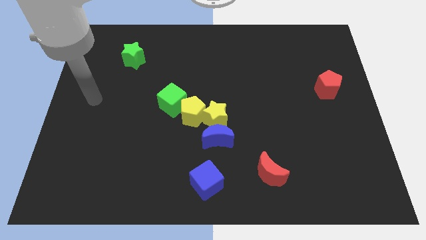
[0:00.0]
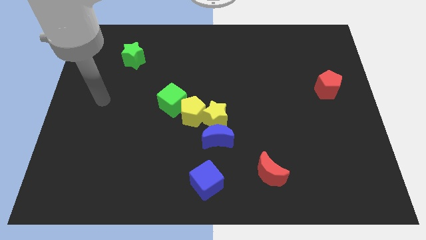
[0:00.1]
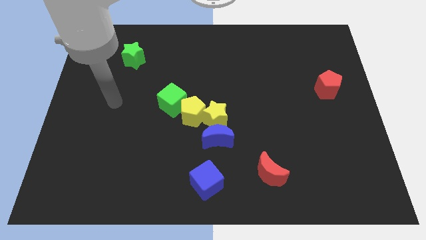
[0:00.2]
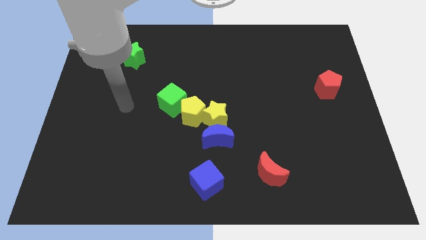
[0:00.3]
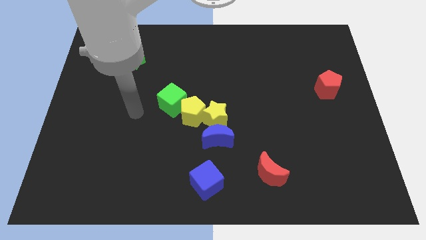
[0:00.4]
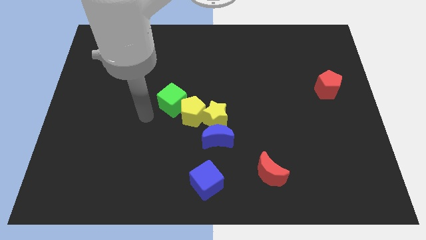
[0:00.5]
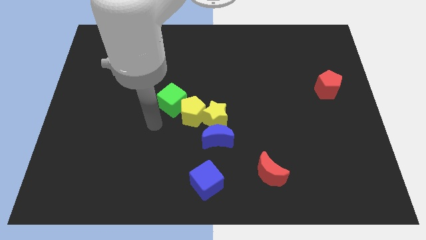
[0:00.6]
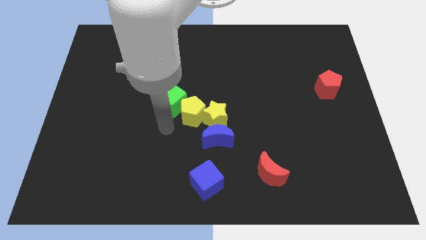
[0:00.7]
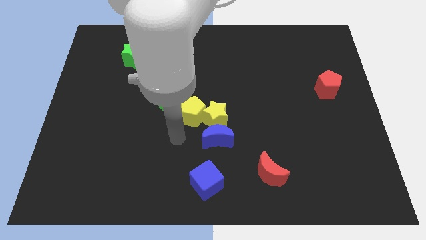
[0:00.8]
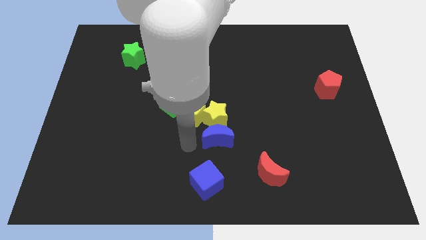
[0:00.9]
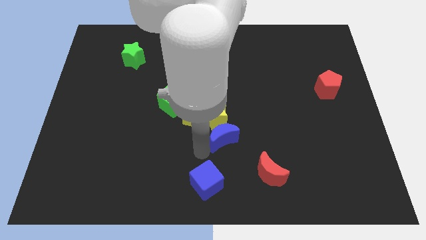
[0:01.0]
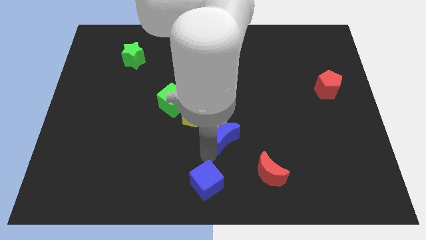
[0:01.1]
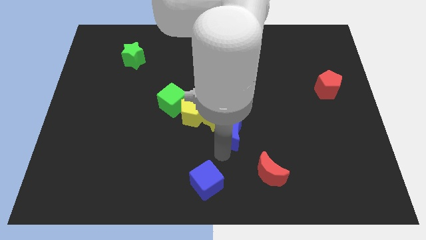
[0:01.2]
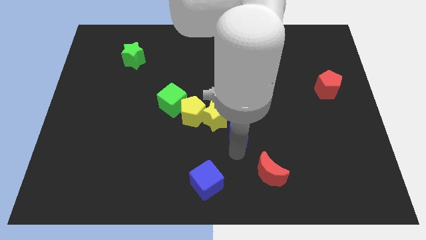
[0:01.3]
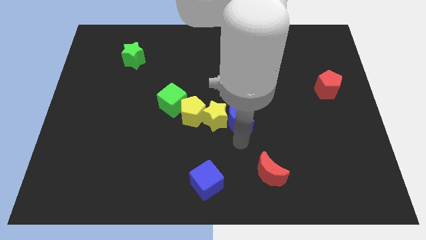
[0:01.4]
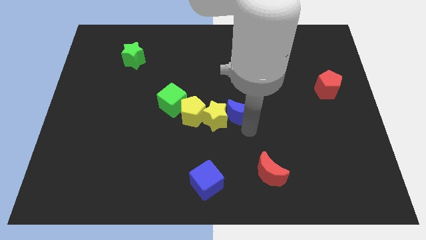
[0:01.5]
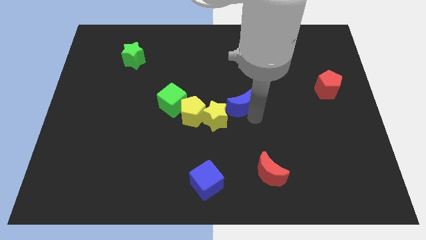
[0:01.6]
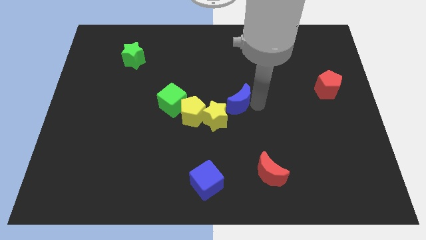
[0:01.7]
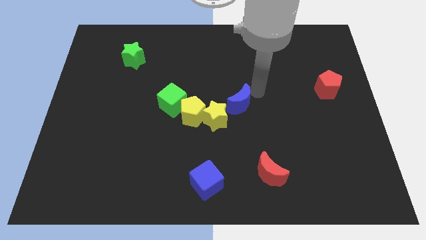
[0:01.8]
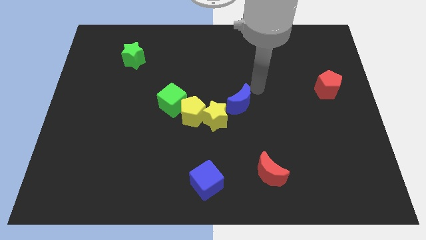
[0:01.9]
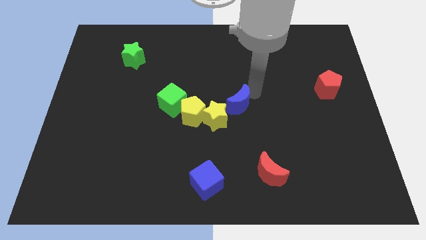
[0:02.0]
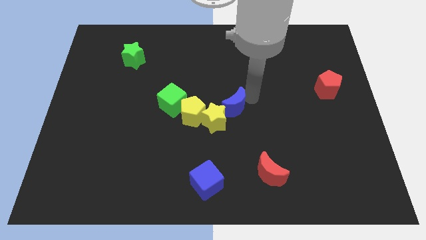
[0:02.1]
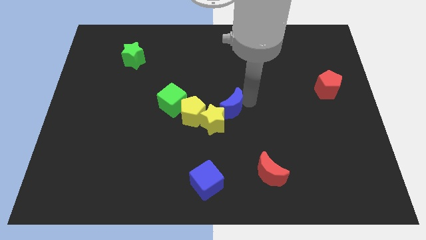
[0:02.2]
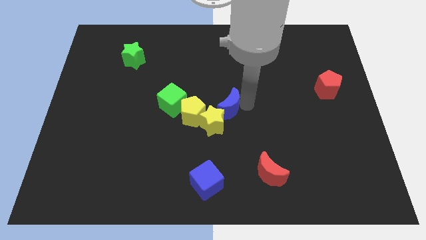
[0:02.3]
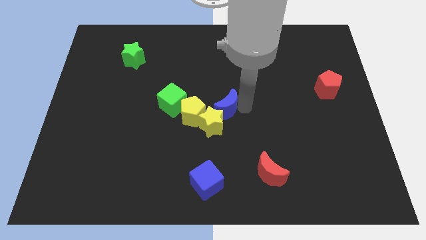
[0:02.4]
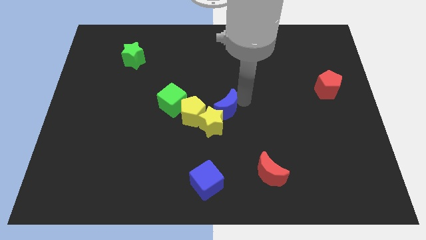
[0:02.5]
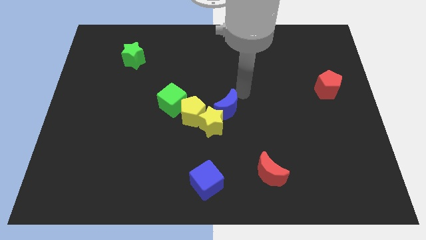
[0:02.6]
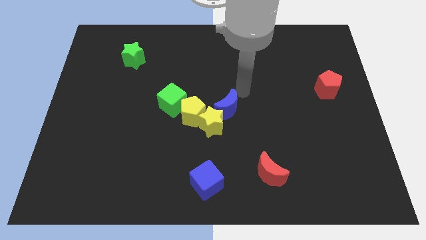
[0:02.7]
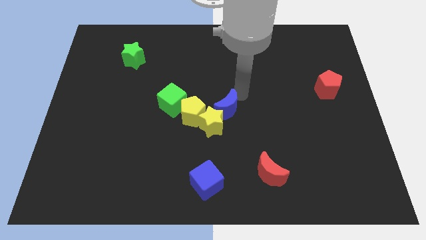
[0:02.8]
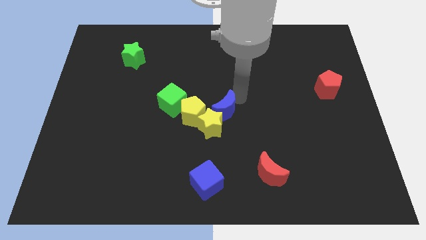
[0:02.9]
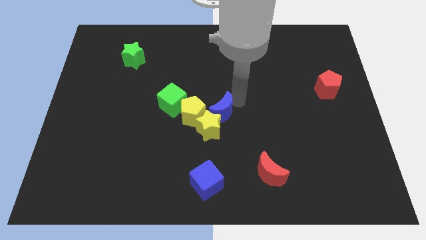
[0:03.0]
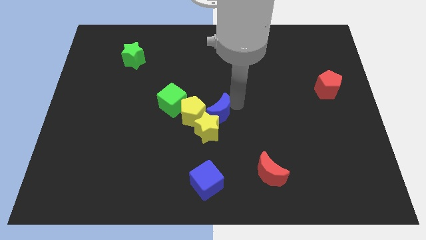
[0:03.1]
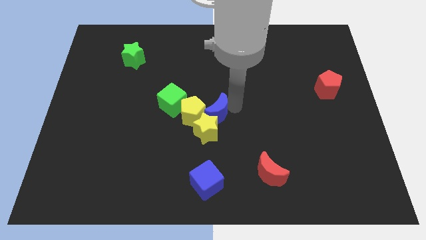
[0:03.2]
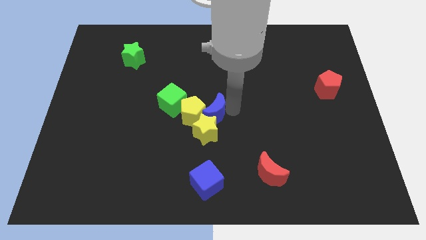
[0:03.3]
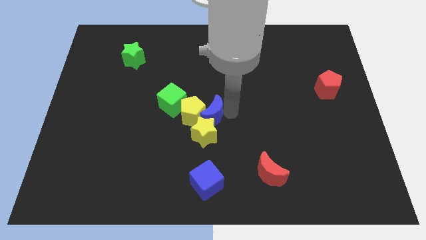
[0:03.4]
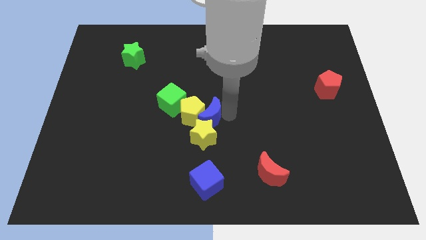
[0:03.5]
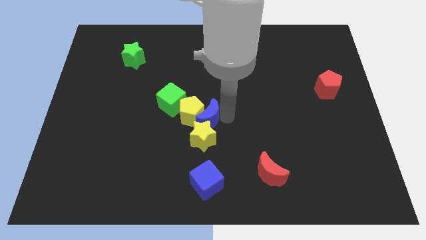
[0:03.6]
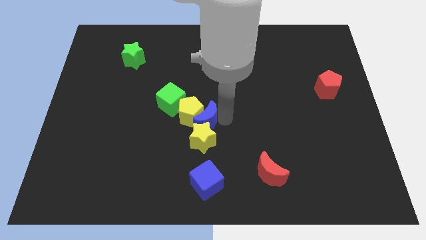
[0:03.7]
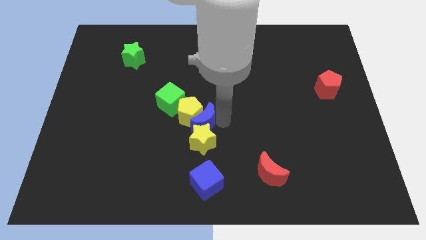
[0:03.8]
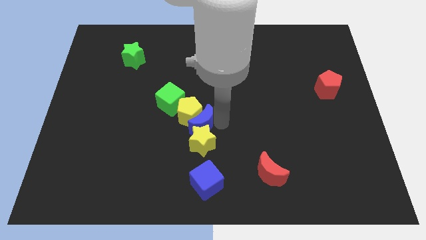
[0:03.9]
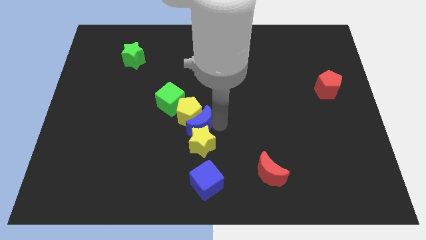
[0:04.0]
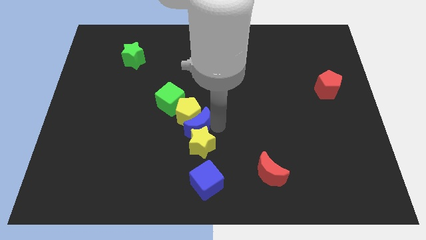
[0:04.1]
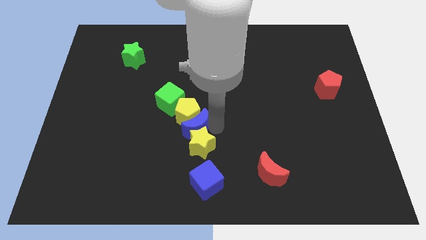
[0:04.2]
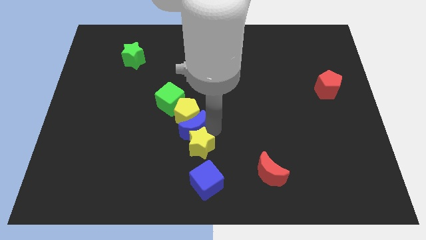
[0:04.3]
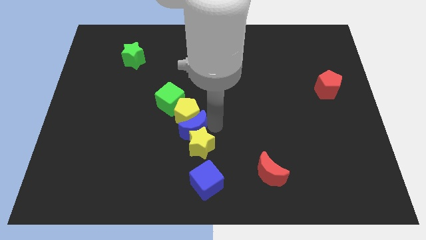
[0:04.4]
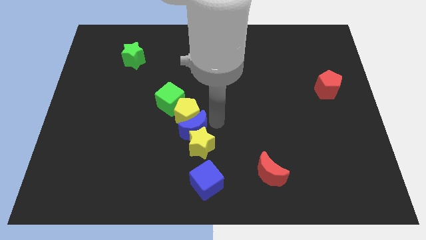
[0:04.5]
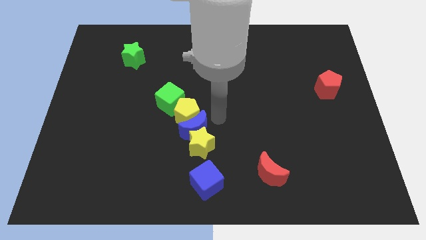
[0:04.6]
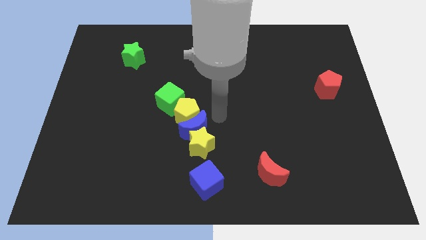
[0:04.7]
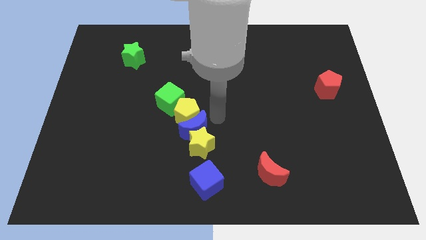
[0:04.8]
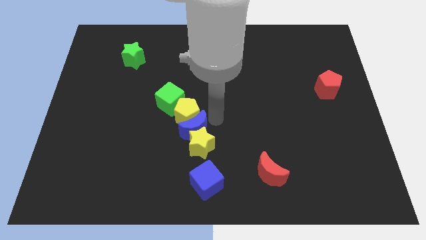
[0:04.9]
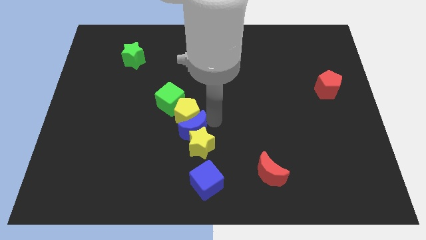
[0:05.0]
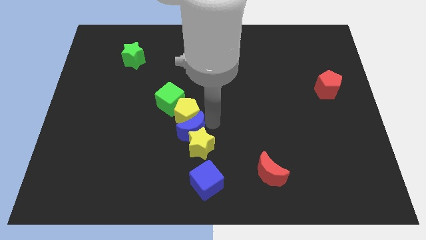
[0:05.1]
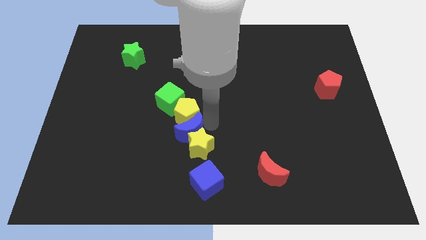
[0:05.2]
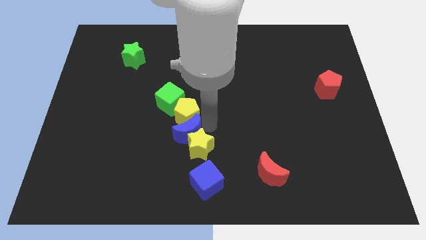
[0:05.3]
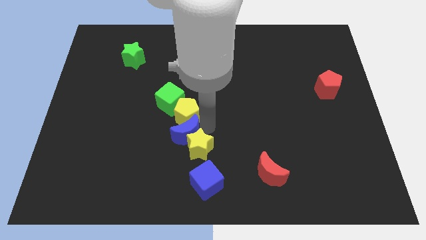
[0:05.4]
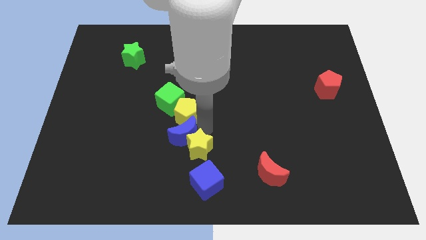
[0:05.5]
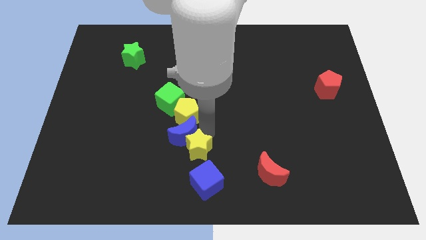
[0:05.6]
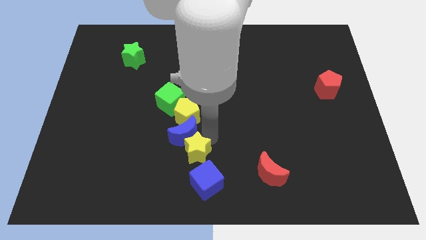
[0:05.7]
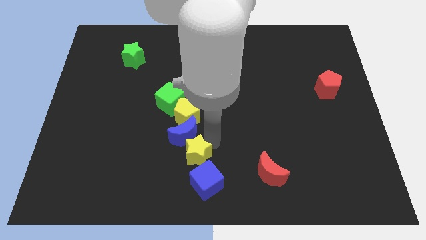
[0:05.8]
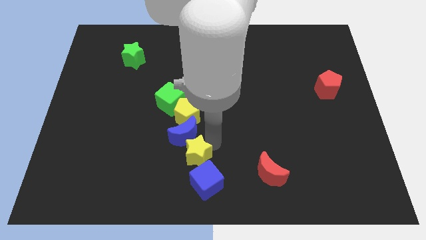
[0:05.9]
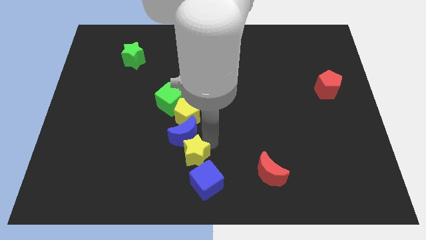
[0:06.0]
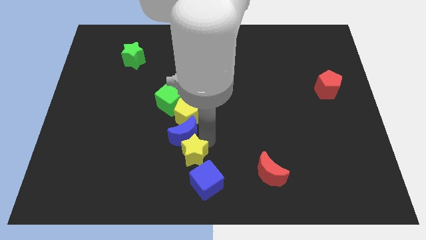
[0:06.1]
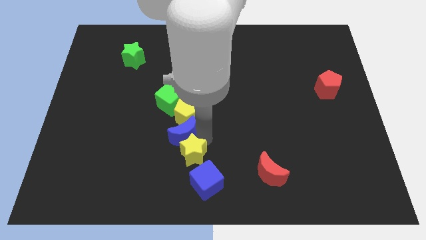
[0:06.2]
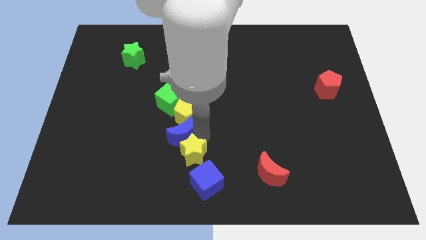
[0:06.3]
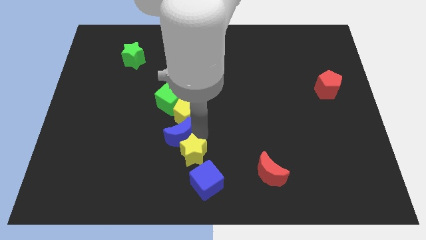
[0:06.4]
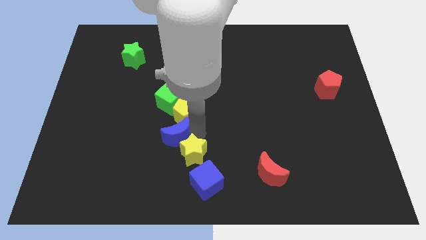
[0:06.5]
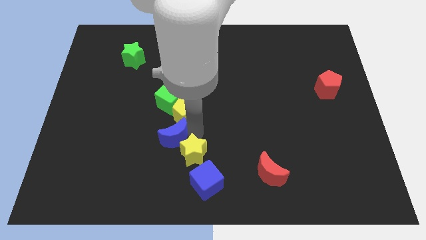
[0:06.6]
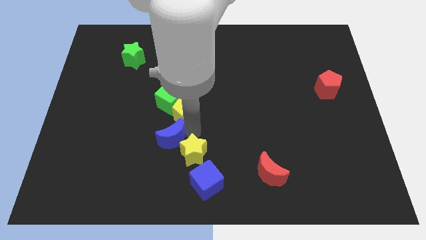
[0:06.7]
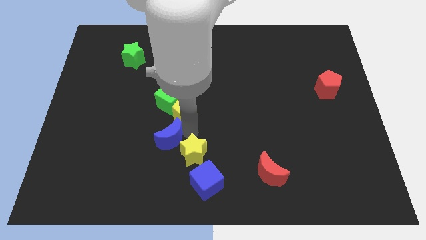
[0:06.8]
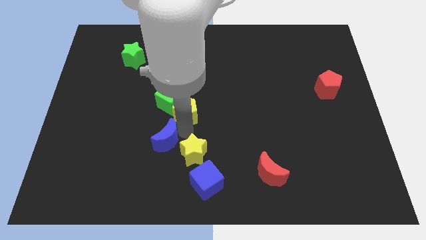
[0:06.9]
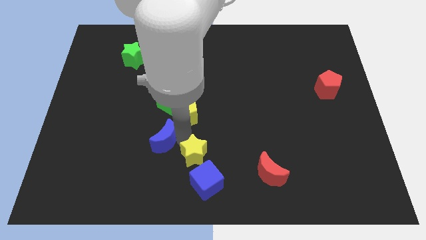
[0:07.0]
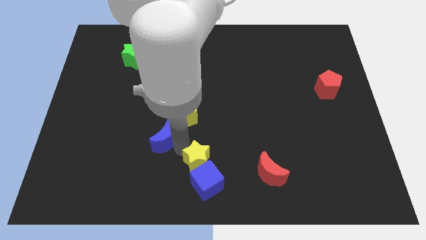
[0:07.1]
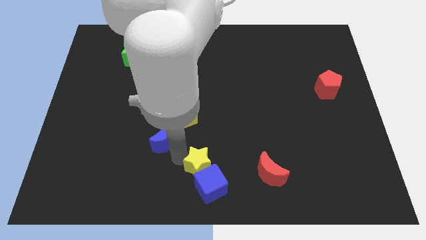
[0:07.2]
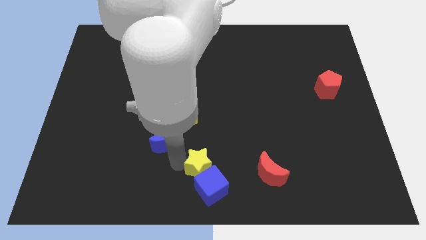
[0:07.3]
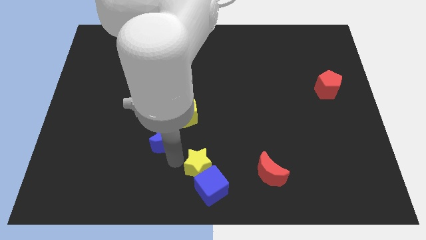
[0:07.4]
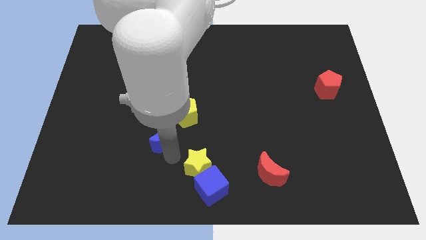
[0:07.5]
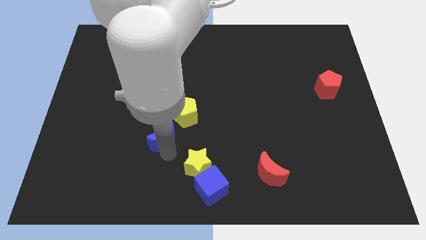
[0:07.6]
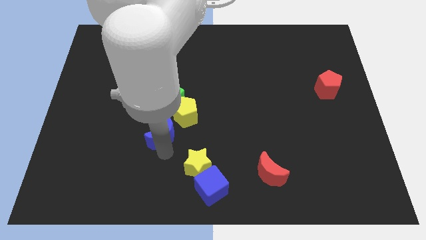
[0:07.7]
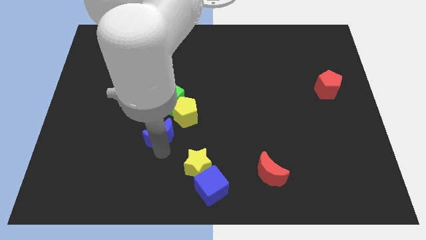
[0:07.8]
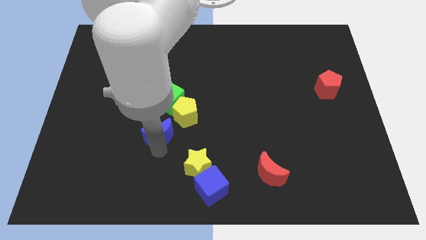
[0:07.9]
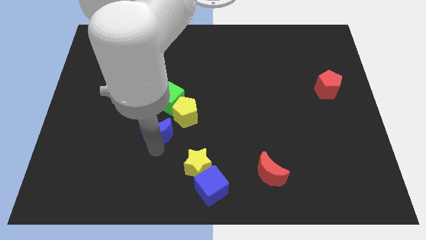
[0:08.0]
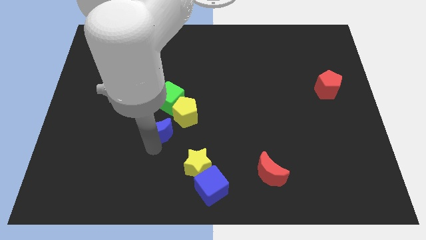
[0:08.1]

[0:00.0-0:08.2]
slide the blue moon a bit upwards and left diagonally
